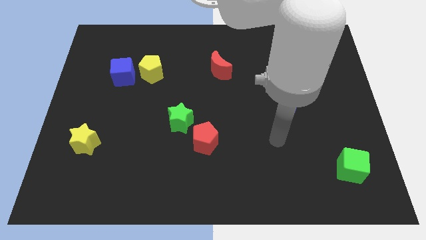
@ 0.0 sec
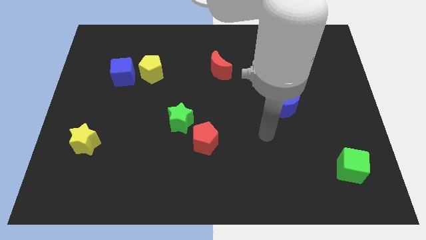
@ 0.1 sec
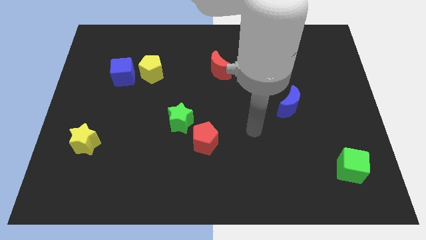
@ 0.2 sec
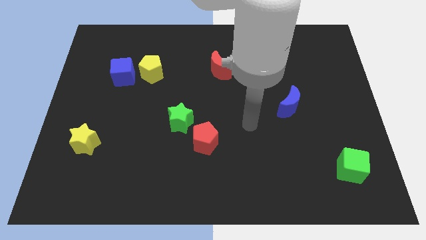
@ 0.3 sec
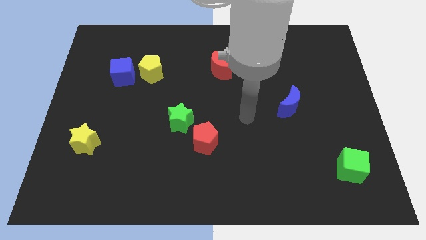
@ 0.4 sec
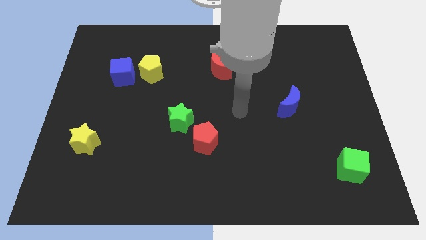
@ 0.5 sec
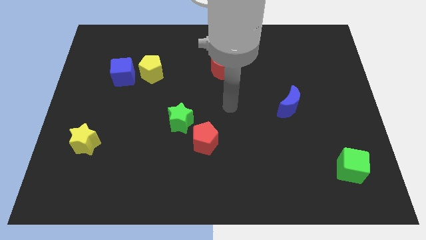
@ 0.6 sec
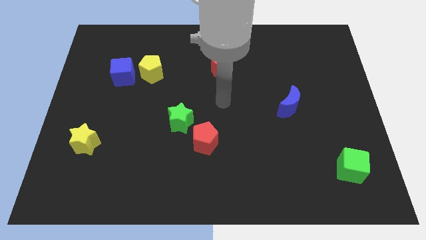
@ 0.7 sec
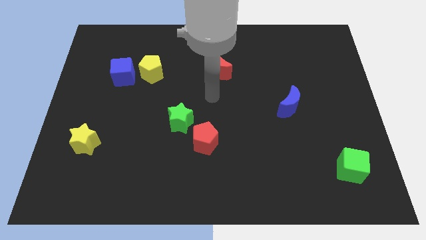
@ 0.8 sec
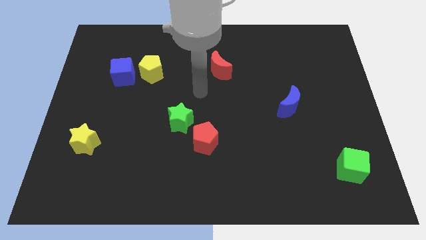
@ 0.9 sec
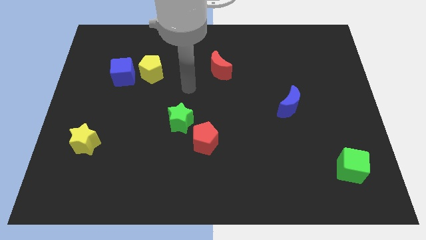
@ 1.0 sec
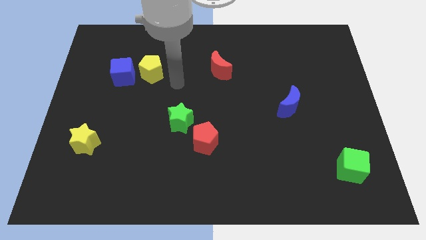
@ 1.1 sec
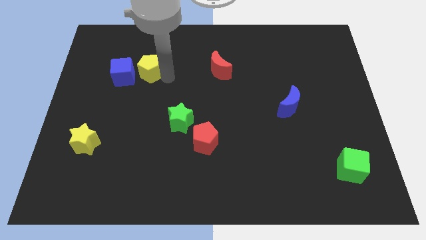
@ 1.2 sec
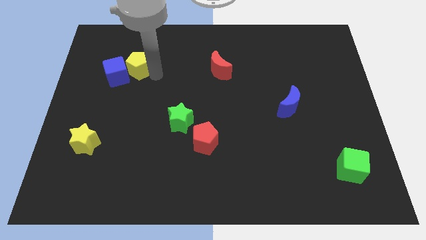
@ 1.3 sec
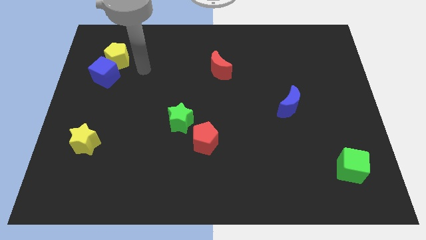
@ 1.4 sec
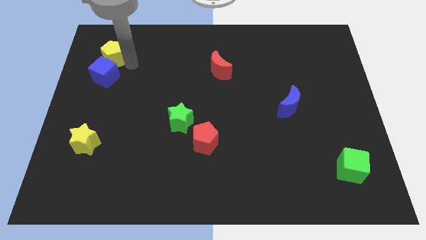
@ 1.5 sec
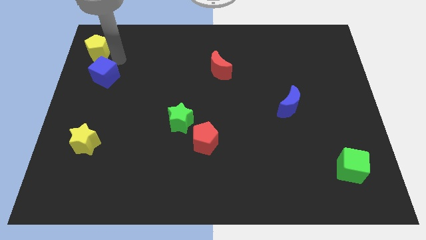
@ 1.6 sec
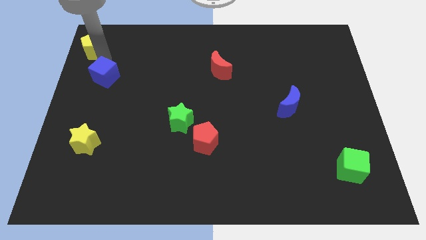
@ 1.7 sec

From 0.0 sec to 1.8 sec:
pull the blue cube apart from the yellow pentagon

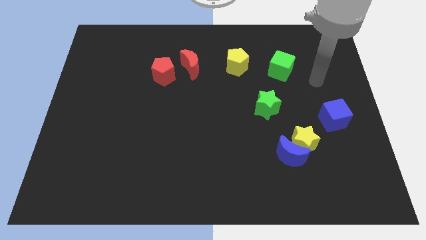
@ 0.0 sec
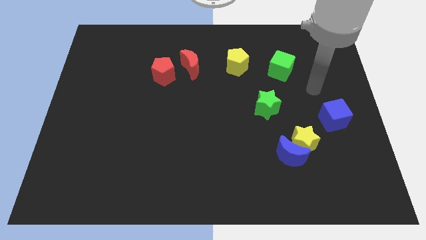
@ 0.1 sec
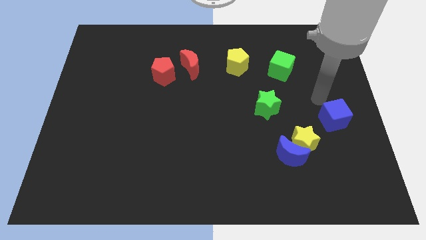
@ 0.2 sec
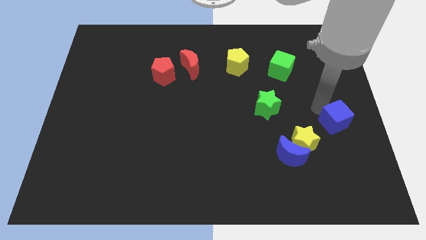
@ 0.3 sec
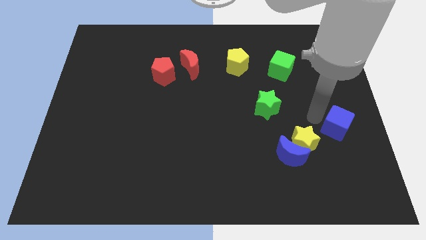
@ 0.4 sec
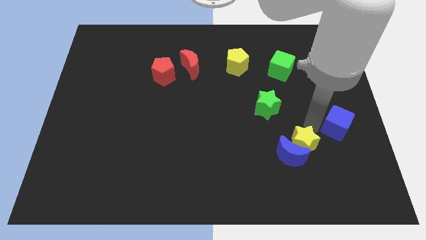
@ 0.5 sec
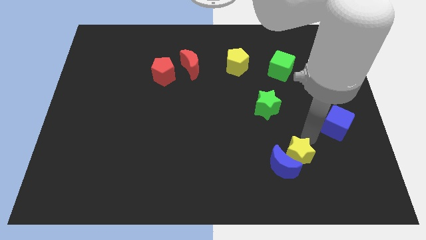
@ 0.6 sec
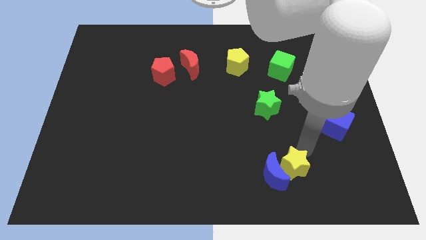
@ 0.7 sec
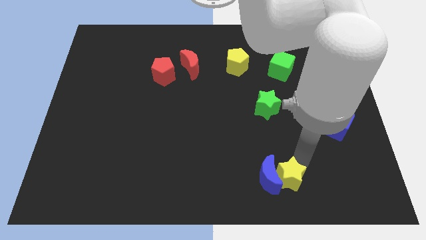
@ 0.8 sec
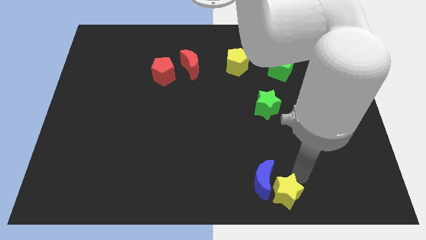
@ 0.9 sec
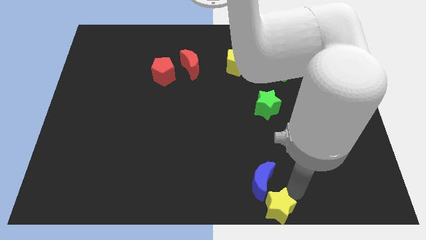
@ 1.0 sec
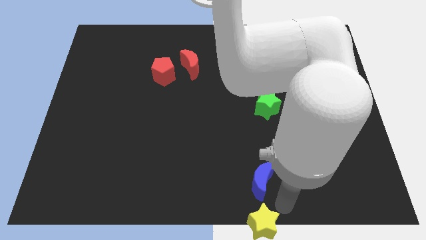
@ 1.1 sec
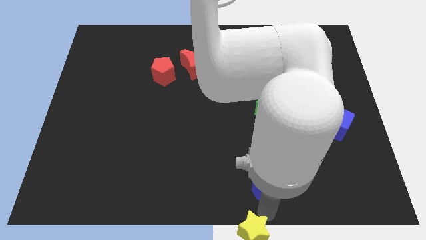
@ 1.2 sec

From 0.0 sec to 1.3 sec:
move the blue moon away from the yellow star

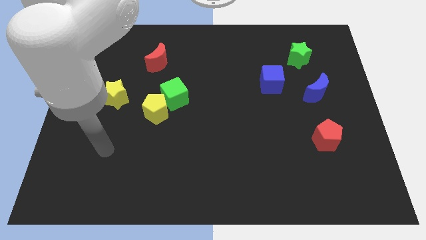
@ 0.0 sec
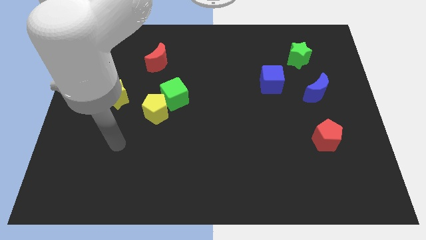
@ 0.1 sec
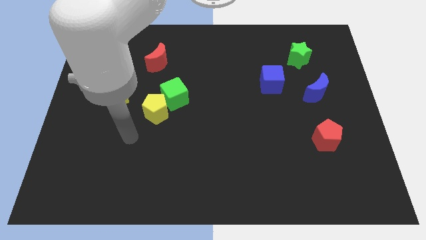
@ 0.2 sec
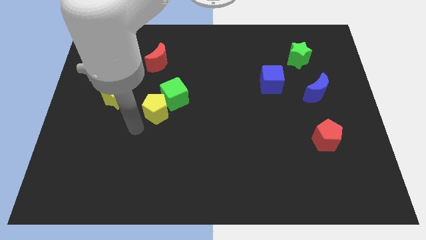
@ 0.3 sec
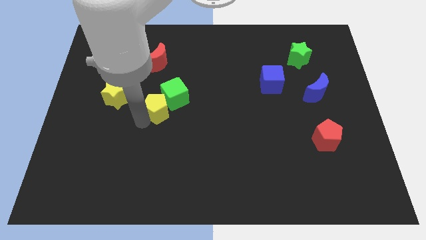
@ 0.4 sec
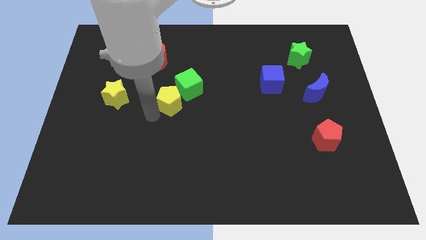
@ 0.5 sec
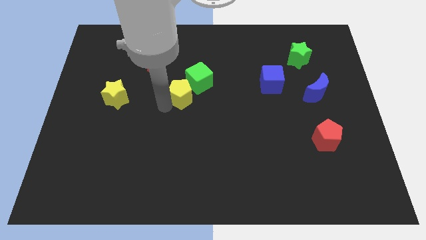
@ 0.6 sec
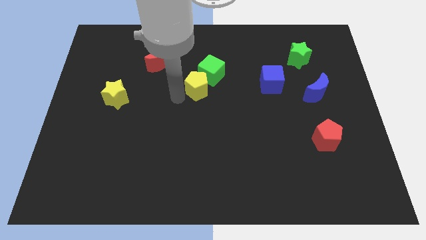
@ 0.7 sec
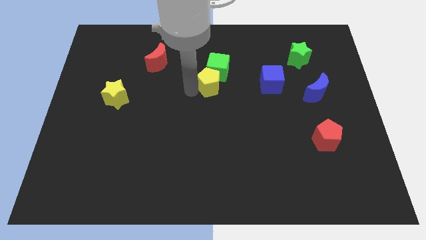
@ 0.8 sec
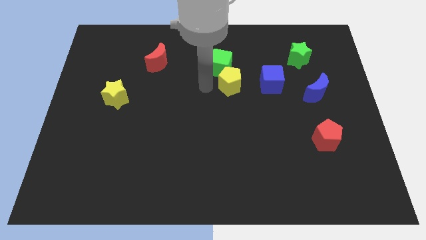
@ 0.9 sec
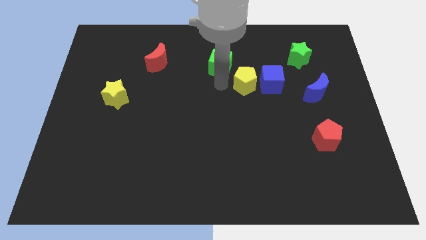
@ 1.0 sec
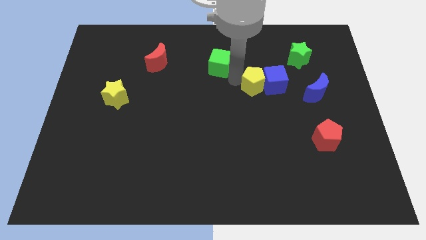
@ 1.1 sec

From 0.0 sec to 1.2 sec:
move the green cube away from the yellow pentagon

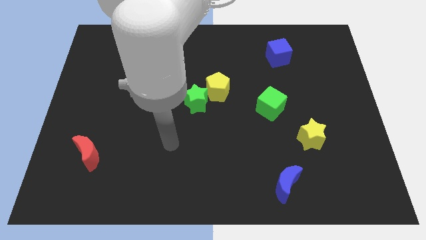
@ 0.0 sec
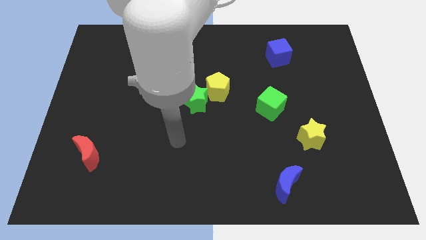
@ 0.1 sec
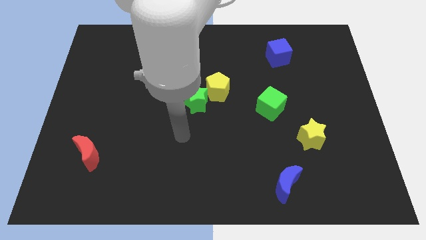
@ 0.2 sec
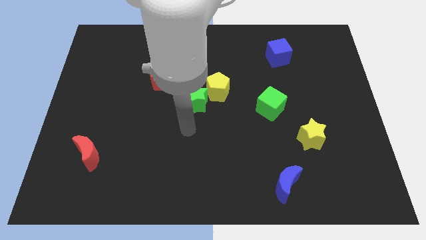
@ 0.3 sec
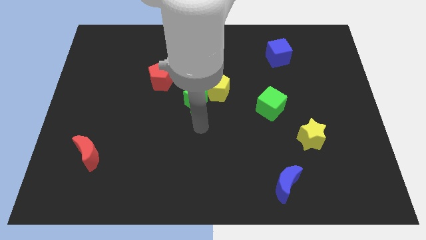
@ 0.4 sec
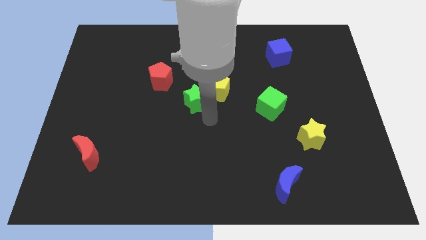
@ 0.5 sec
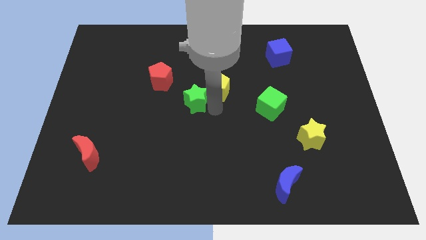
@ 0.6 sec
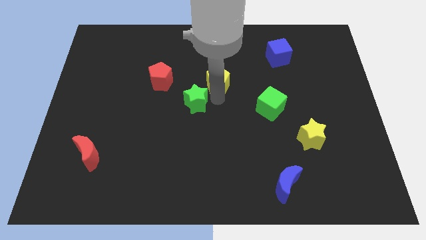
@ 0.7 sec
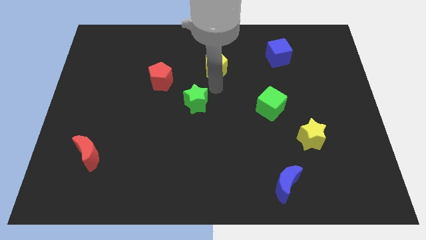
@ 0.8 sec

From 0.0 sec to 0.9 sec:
move the green star away from the yellow pentagon

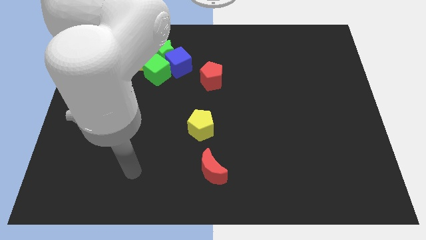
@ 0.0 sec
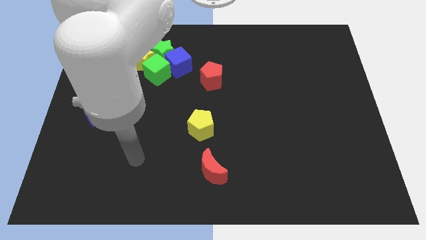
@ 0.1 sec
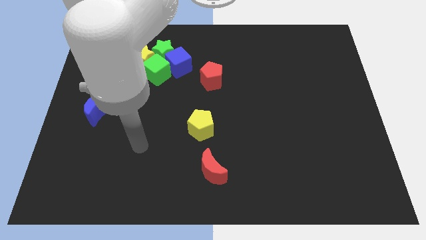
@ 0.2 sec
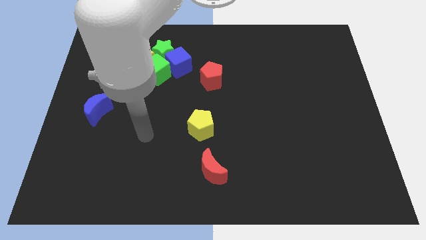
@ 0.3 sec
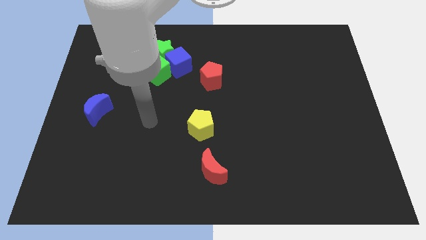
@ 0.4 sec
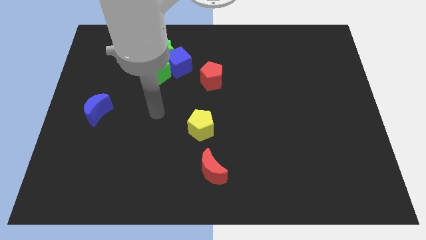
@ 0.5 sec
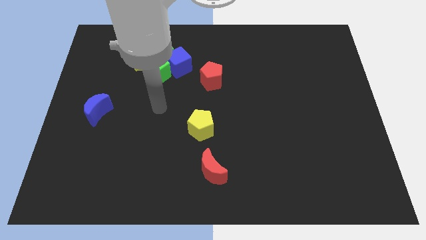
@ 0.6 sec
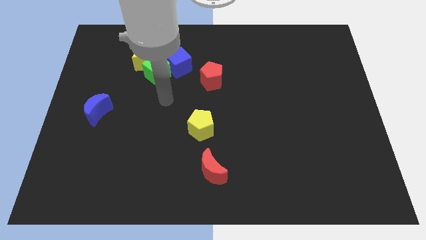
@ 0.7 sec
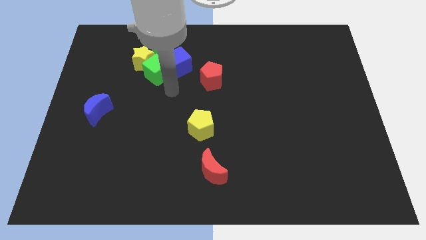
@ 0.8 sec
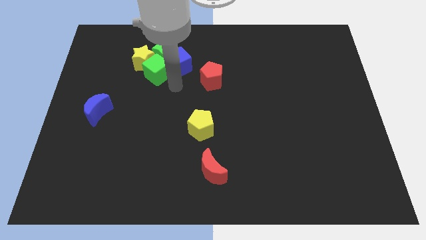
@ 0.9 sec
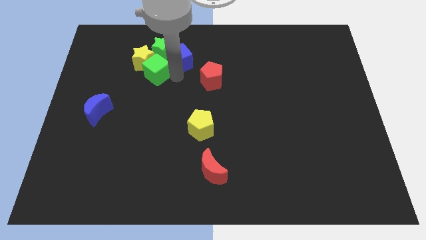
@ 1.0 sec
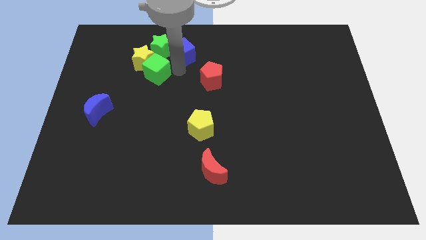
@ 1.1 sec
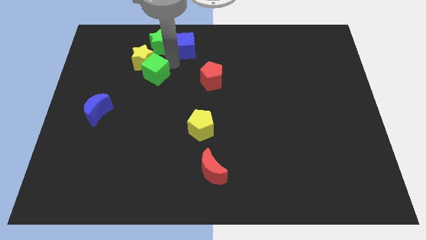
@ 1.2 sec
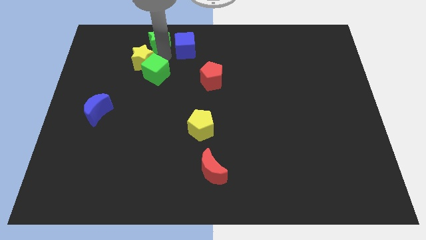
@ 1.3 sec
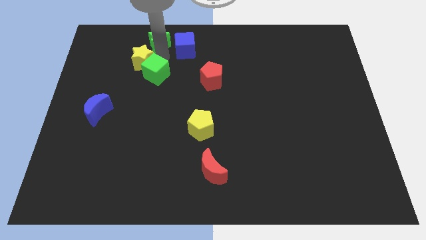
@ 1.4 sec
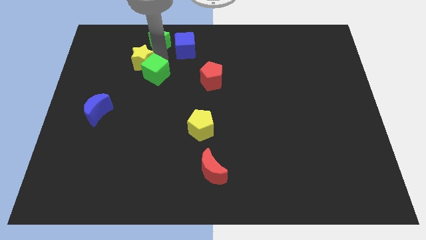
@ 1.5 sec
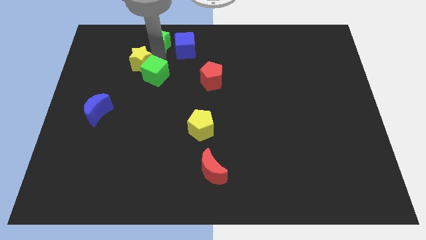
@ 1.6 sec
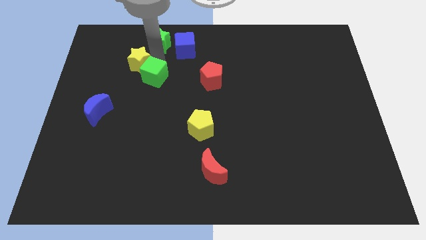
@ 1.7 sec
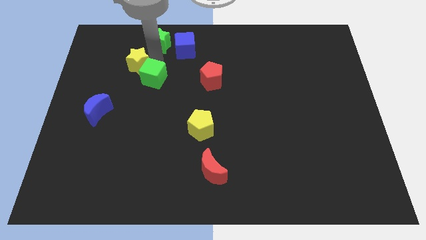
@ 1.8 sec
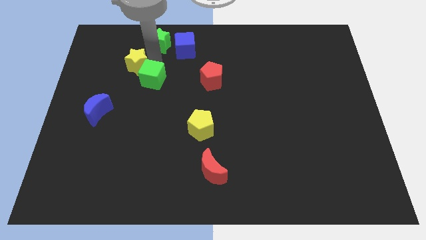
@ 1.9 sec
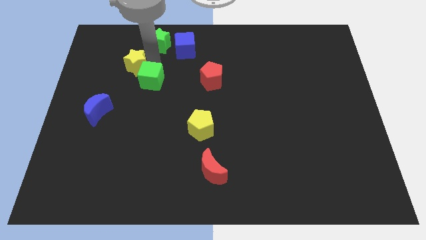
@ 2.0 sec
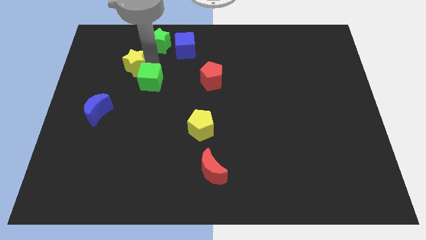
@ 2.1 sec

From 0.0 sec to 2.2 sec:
move the green cube away from the clump

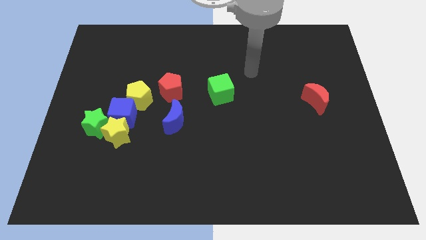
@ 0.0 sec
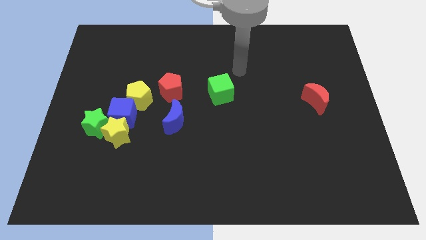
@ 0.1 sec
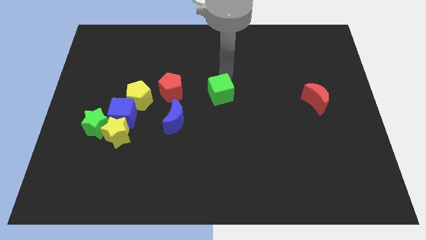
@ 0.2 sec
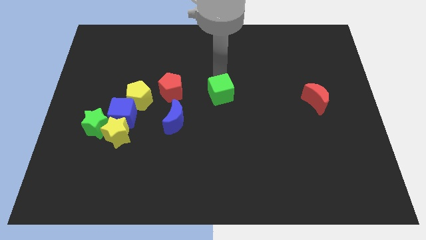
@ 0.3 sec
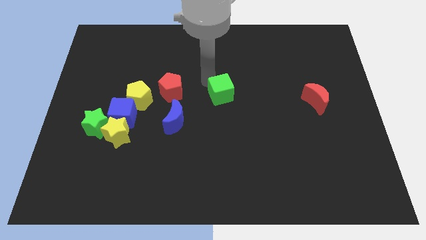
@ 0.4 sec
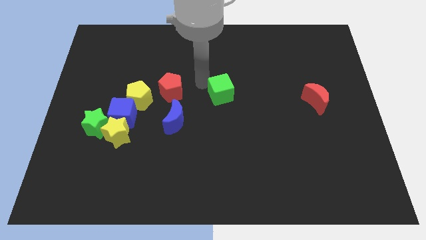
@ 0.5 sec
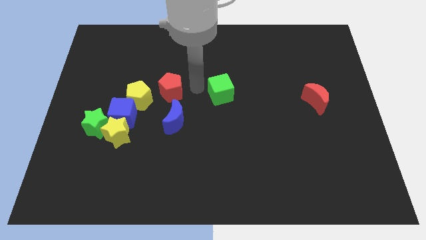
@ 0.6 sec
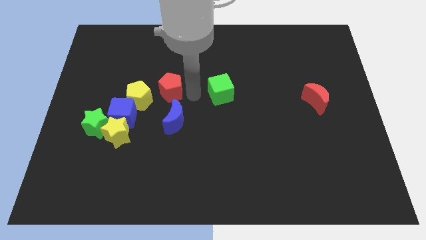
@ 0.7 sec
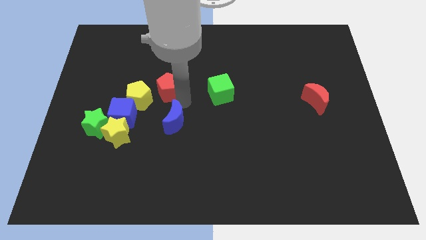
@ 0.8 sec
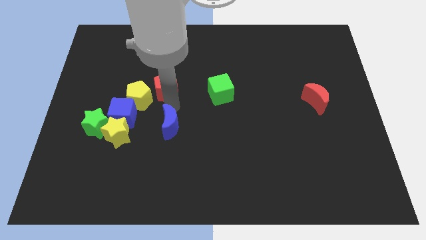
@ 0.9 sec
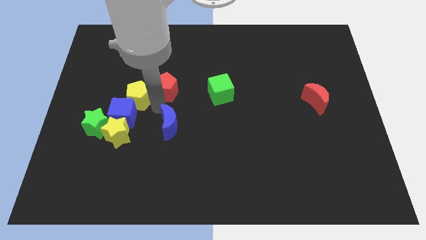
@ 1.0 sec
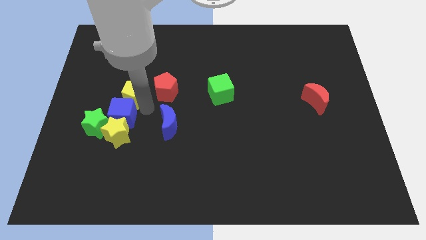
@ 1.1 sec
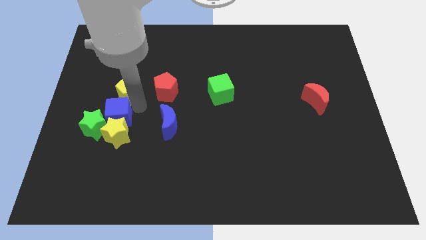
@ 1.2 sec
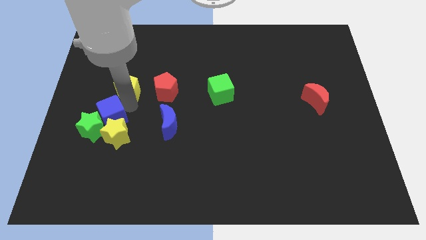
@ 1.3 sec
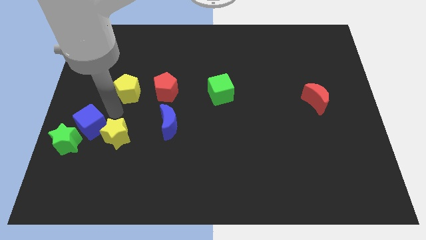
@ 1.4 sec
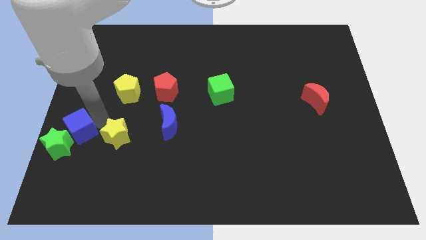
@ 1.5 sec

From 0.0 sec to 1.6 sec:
separate the yellow star from the blue cube and green star

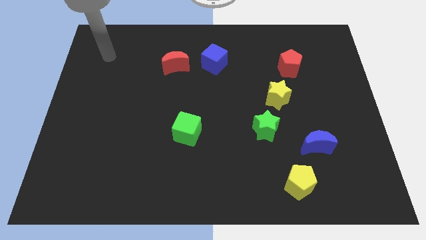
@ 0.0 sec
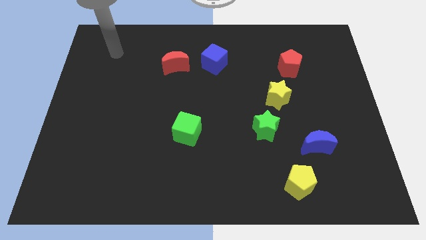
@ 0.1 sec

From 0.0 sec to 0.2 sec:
move the red moon away from the blue cube
